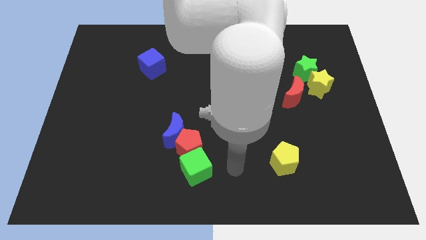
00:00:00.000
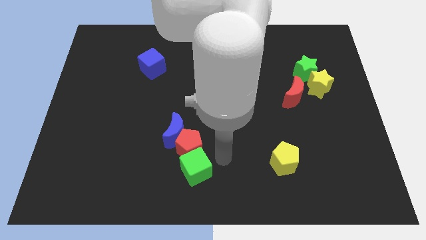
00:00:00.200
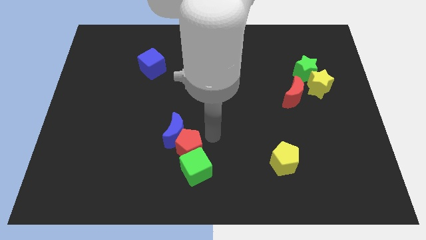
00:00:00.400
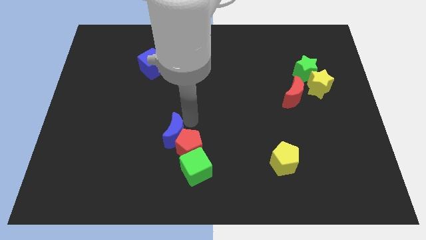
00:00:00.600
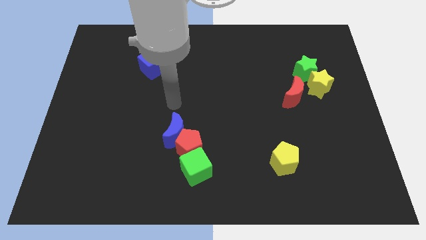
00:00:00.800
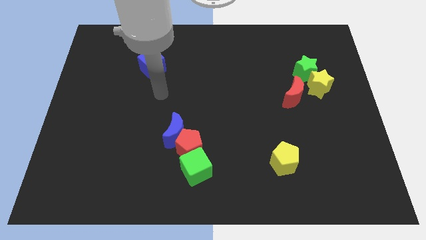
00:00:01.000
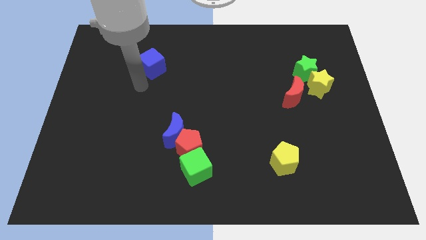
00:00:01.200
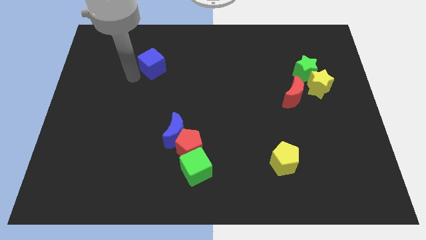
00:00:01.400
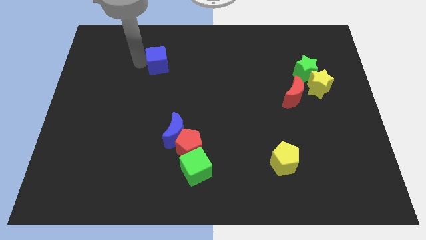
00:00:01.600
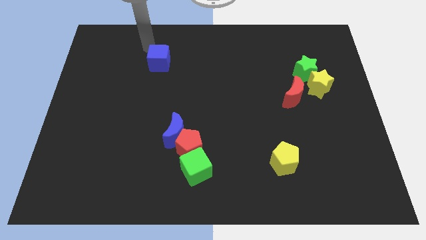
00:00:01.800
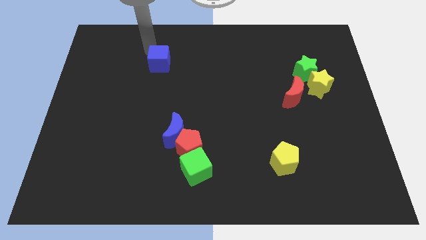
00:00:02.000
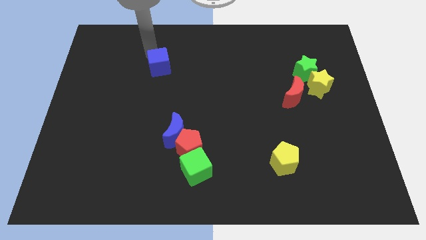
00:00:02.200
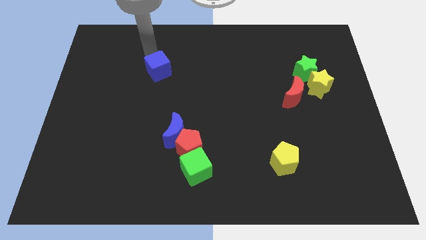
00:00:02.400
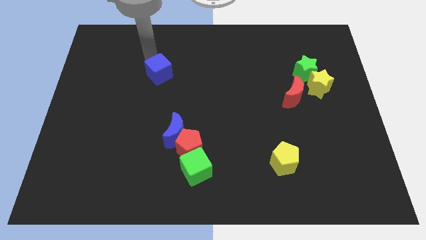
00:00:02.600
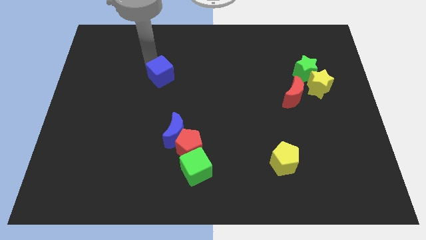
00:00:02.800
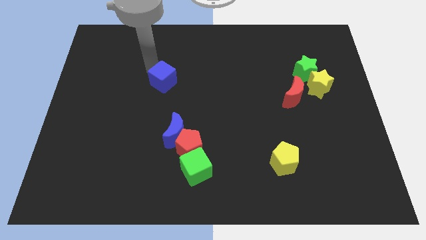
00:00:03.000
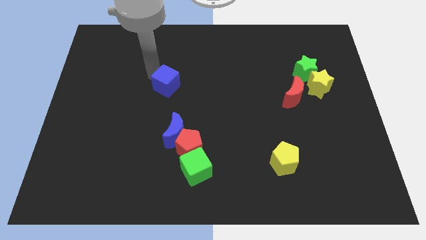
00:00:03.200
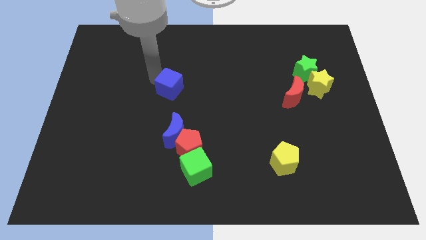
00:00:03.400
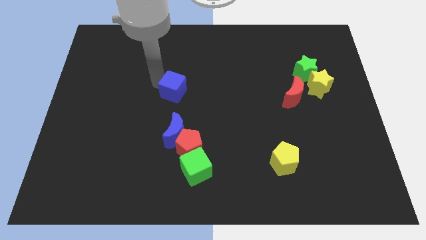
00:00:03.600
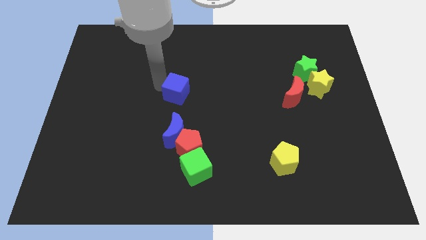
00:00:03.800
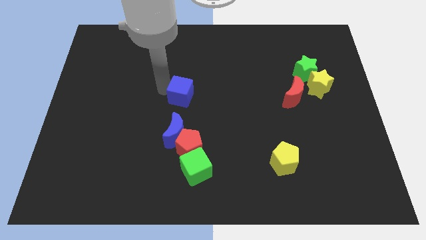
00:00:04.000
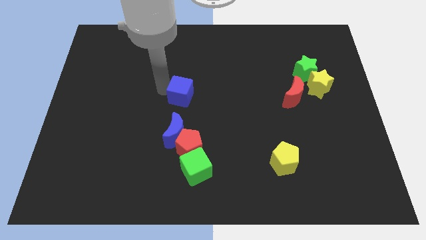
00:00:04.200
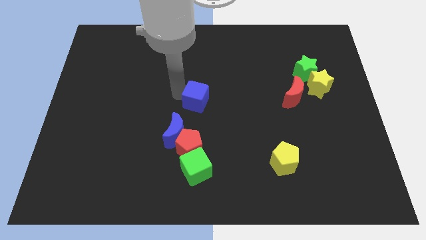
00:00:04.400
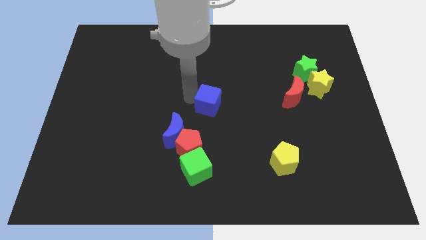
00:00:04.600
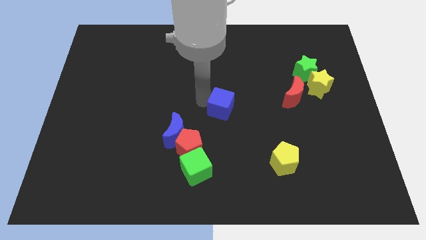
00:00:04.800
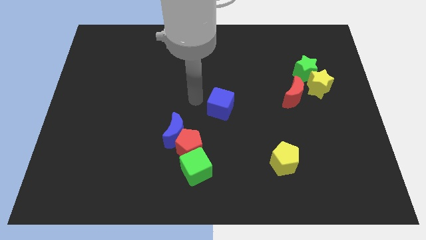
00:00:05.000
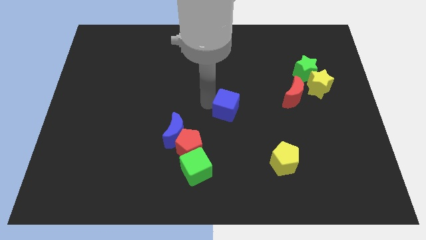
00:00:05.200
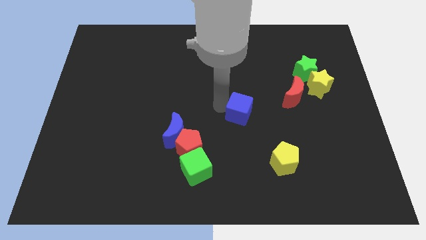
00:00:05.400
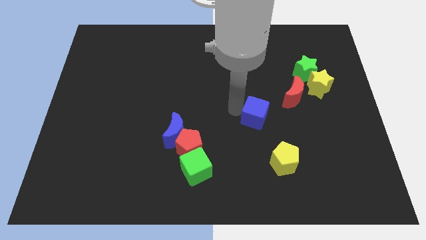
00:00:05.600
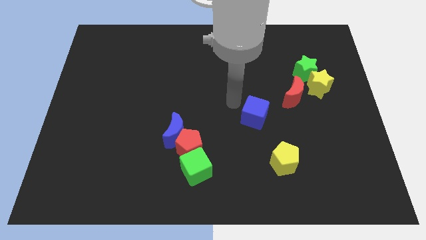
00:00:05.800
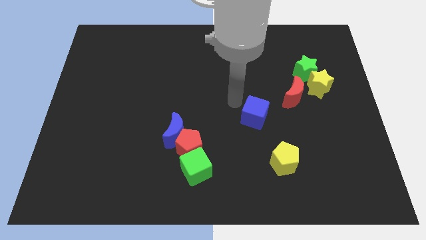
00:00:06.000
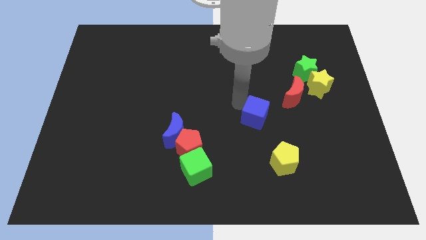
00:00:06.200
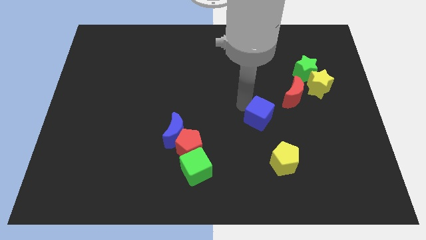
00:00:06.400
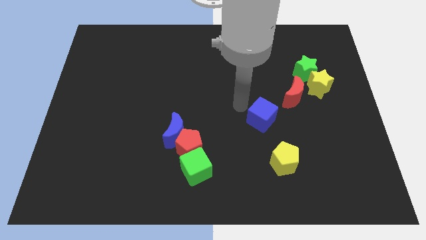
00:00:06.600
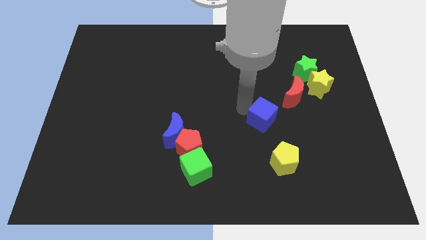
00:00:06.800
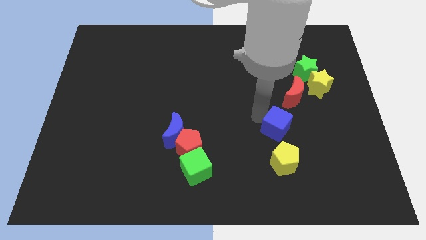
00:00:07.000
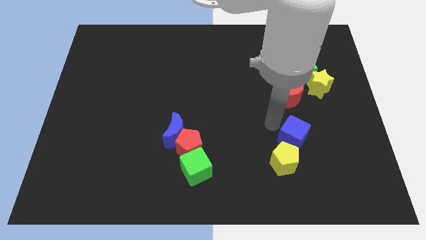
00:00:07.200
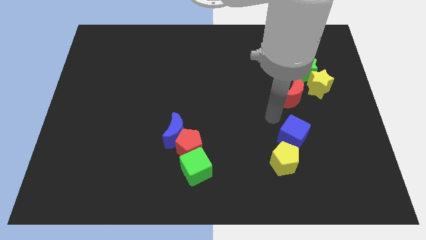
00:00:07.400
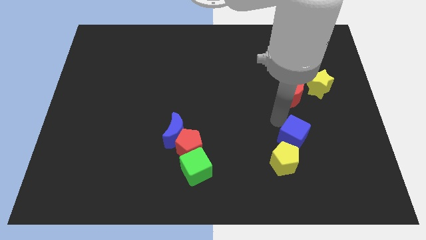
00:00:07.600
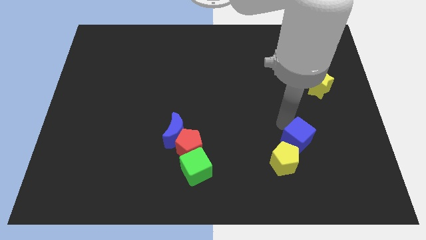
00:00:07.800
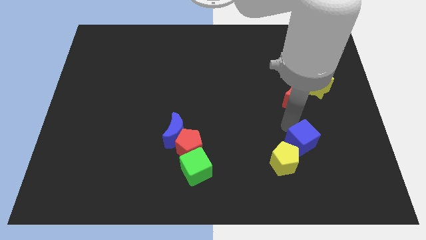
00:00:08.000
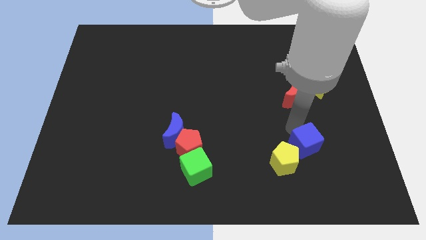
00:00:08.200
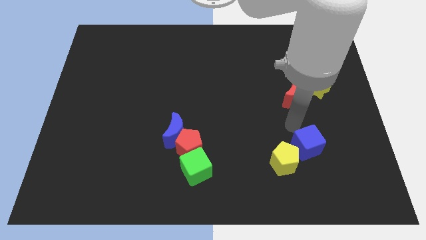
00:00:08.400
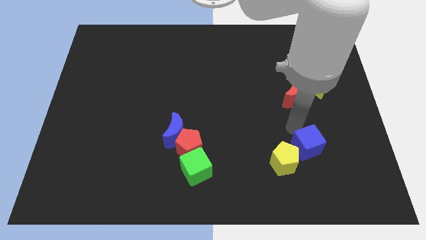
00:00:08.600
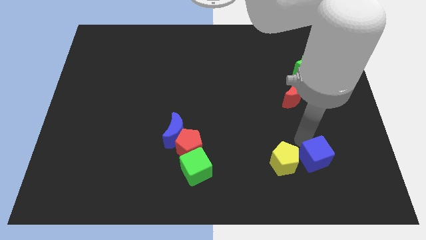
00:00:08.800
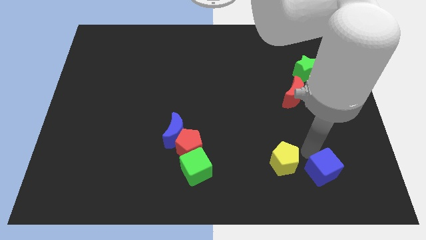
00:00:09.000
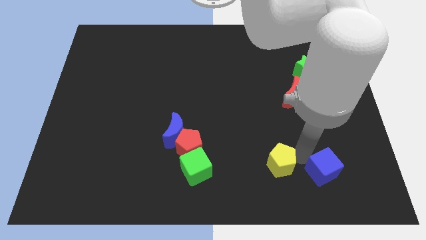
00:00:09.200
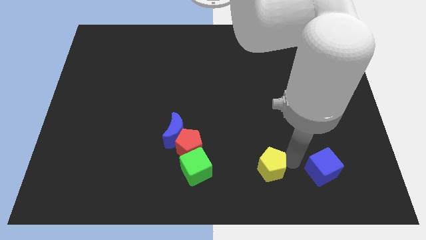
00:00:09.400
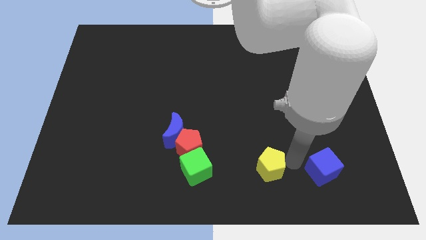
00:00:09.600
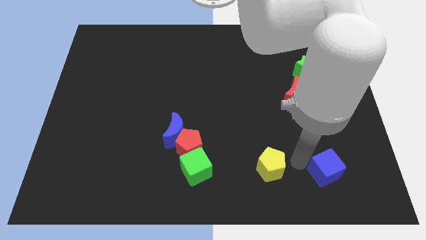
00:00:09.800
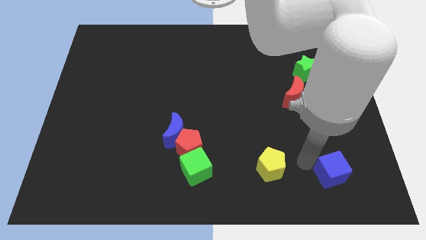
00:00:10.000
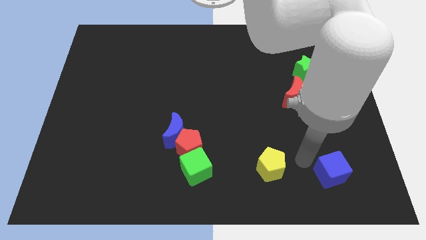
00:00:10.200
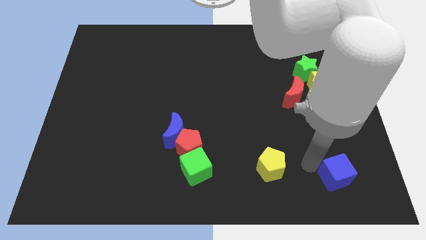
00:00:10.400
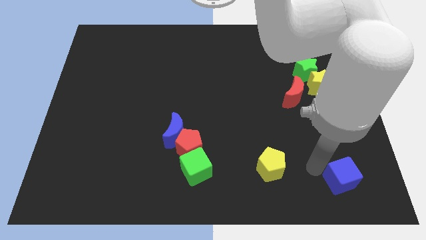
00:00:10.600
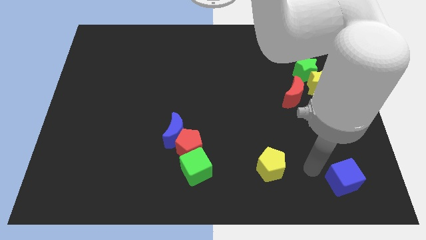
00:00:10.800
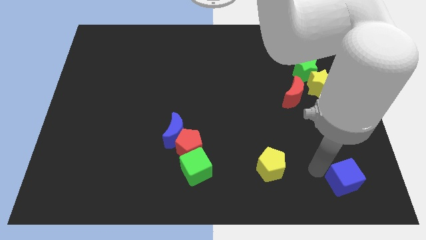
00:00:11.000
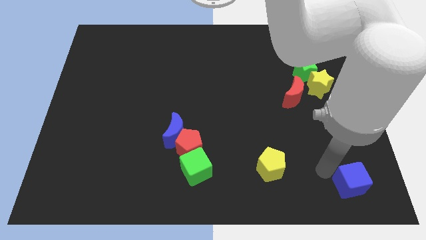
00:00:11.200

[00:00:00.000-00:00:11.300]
move the blue cube to the lower right corner
